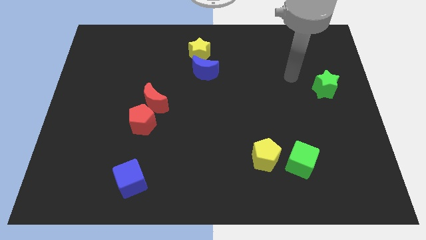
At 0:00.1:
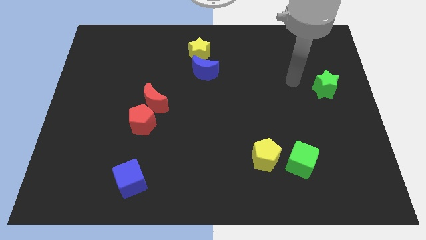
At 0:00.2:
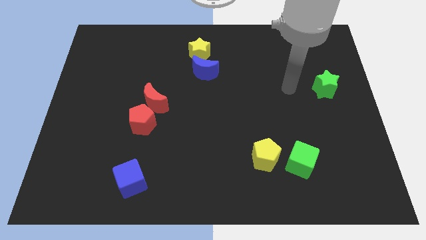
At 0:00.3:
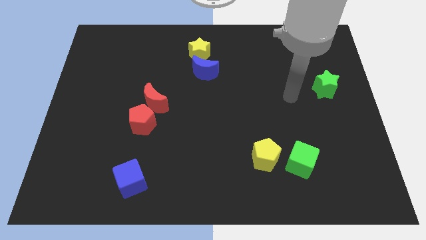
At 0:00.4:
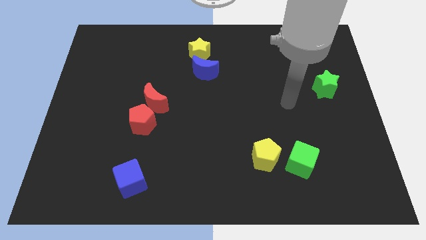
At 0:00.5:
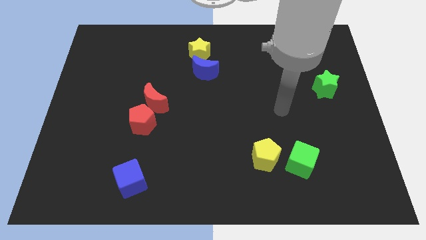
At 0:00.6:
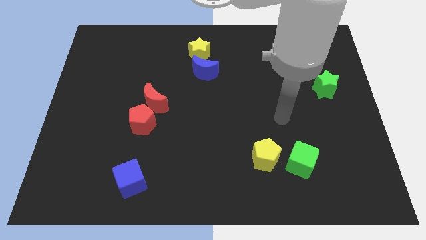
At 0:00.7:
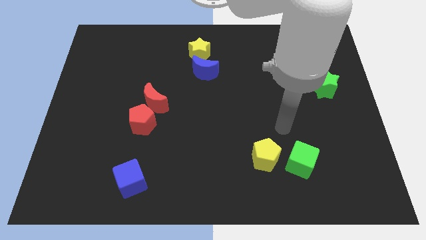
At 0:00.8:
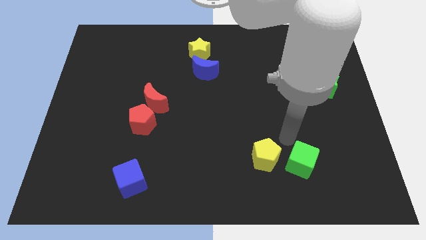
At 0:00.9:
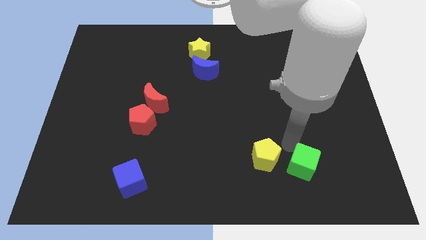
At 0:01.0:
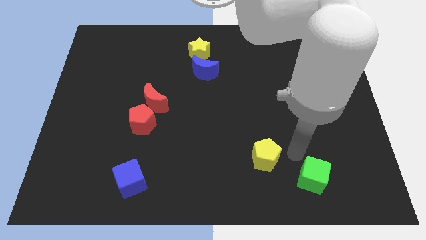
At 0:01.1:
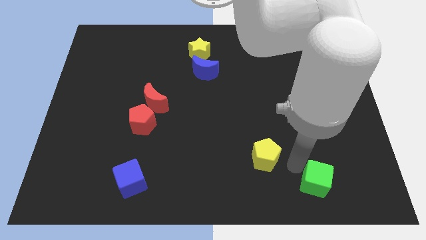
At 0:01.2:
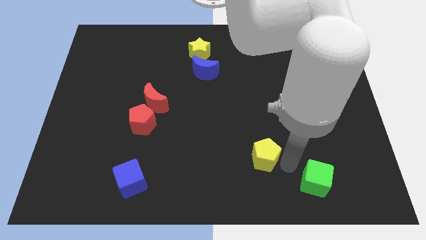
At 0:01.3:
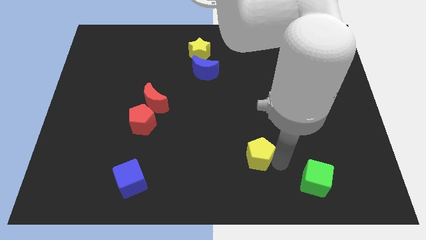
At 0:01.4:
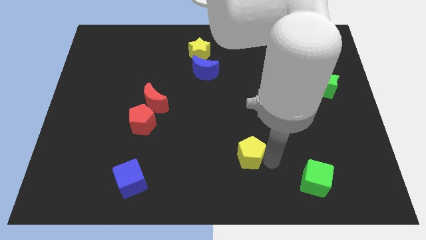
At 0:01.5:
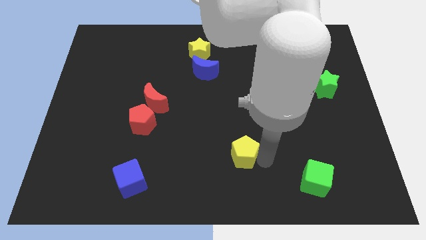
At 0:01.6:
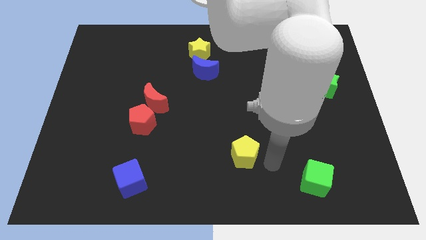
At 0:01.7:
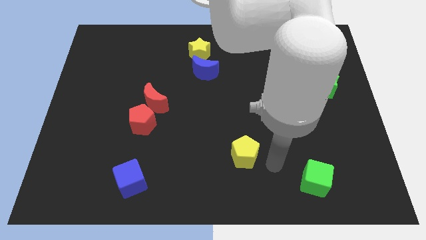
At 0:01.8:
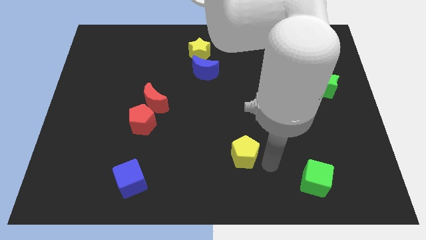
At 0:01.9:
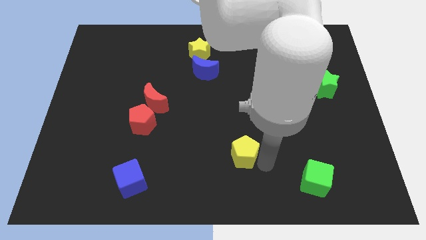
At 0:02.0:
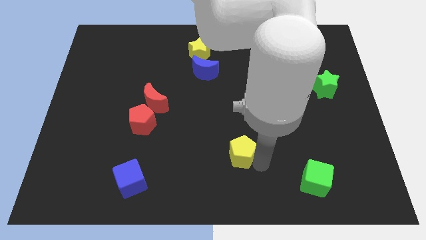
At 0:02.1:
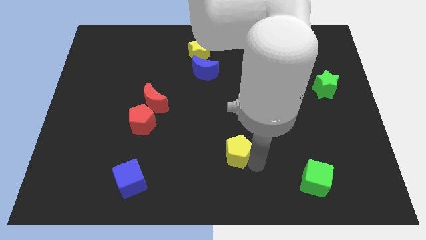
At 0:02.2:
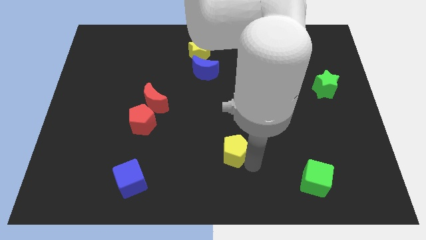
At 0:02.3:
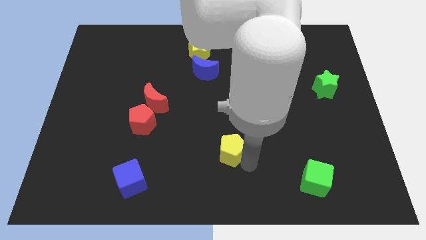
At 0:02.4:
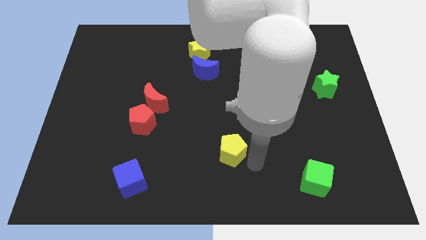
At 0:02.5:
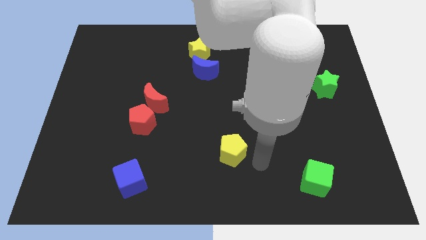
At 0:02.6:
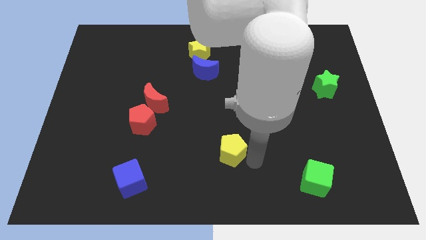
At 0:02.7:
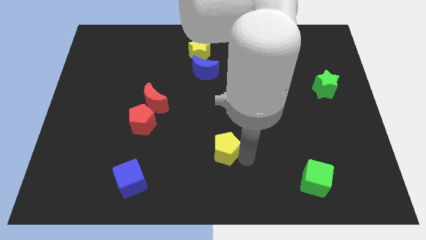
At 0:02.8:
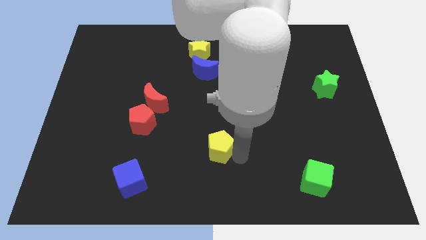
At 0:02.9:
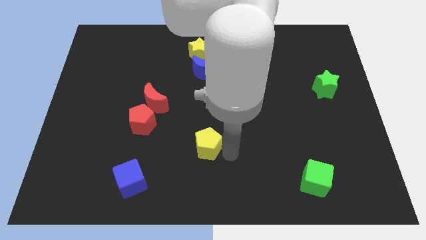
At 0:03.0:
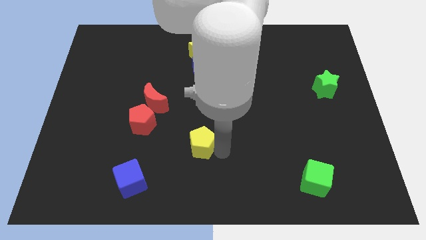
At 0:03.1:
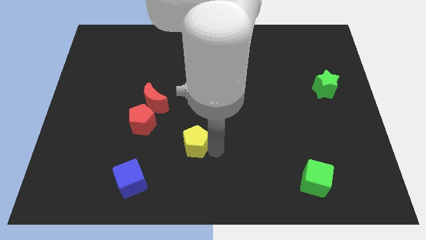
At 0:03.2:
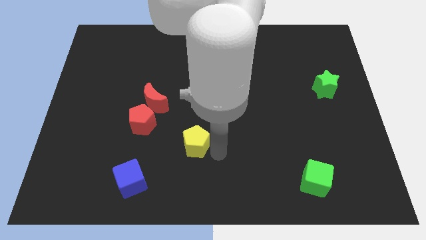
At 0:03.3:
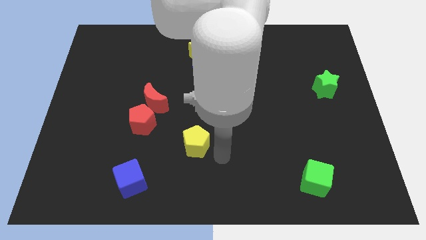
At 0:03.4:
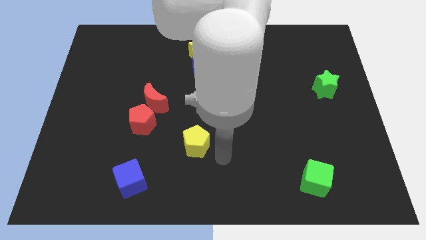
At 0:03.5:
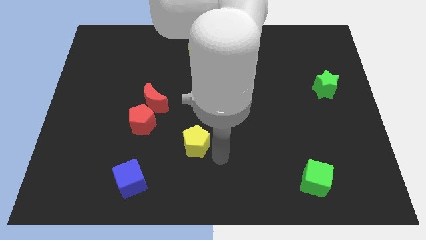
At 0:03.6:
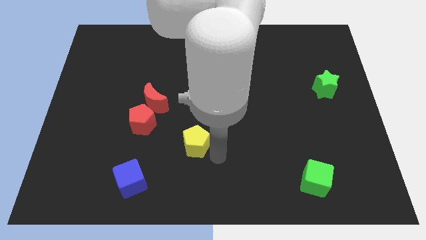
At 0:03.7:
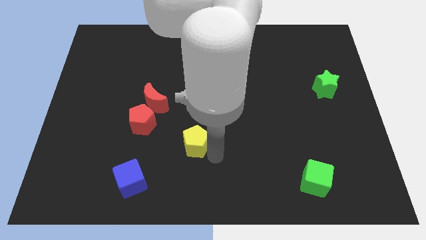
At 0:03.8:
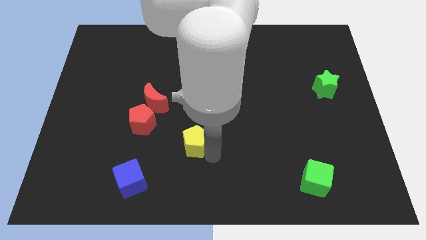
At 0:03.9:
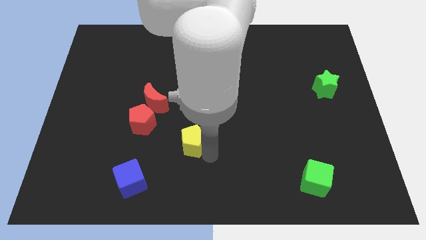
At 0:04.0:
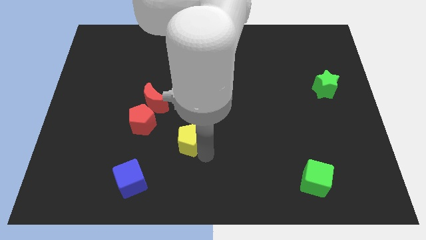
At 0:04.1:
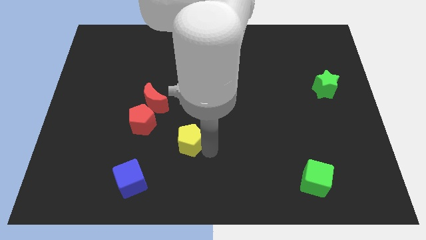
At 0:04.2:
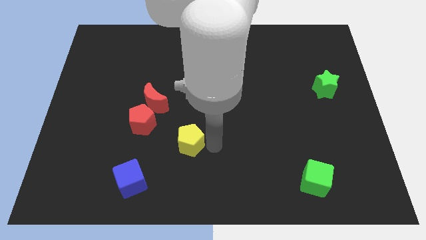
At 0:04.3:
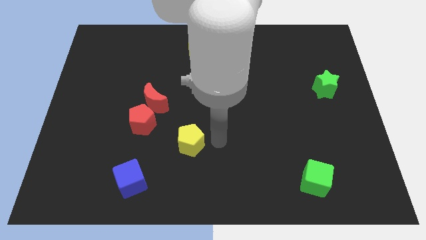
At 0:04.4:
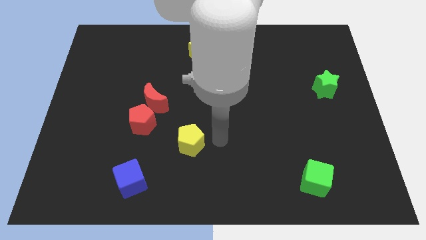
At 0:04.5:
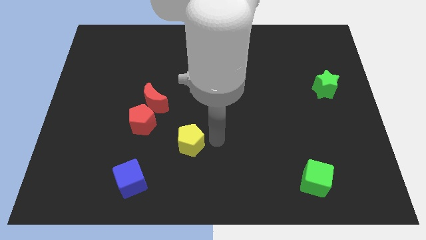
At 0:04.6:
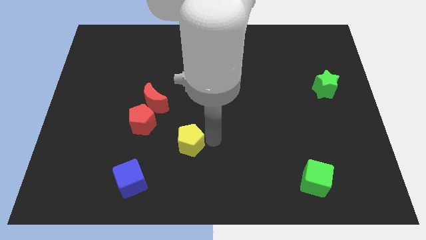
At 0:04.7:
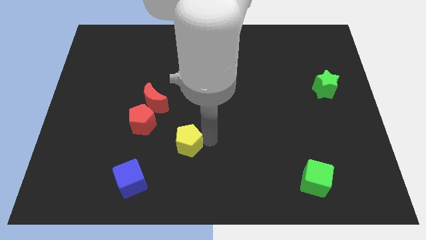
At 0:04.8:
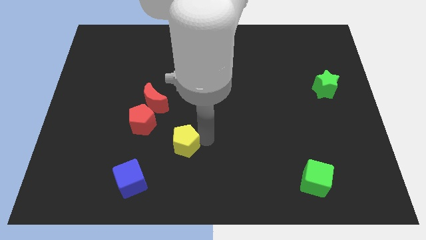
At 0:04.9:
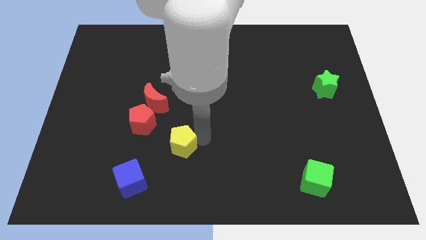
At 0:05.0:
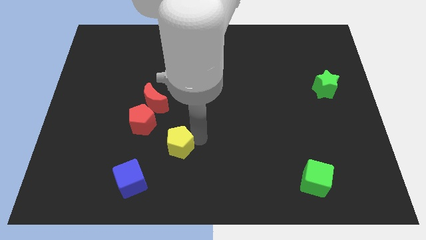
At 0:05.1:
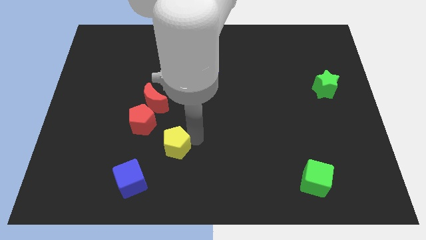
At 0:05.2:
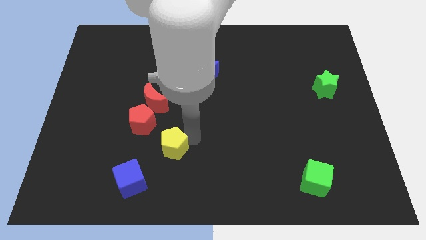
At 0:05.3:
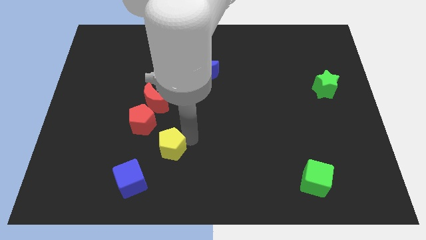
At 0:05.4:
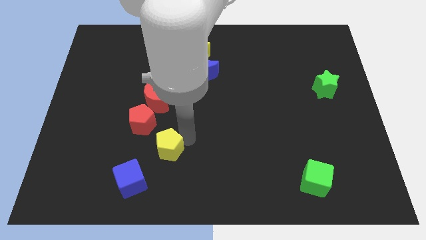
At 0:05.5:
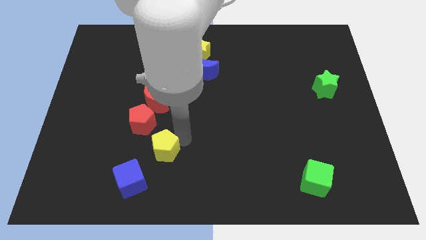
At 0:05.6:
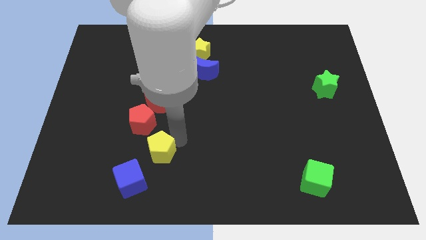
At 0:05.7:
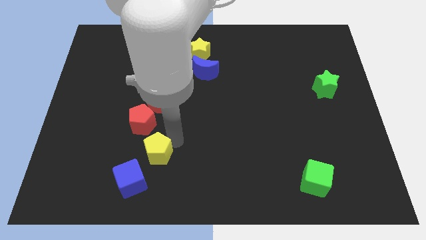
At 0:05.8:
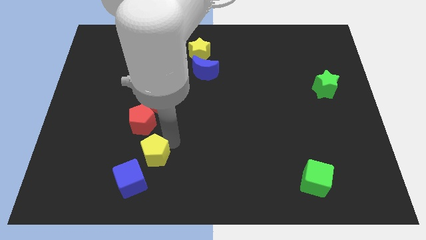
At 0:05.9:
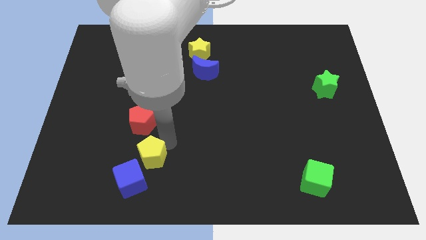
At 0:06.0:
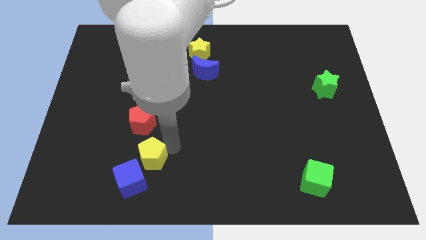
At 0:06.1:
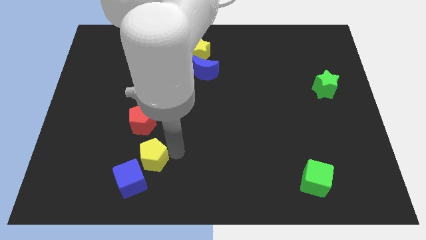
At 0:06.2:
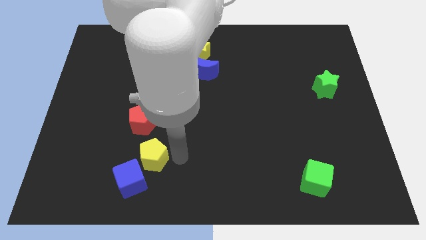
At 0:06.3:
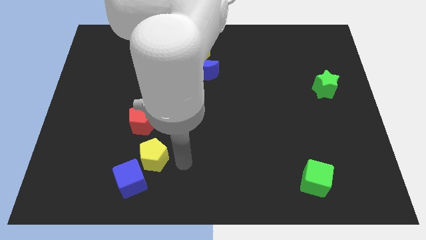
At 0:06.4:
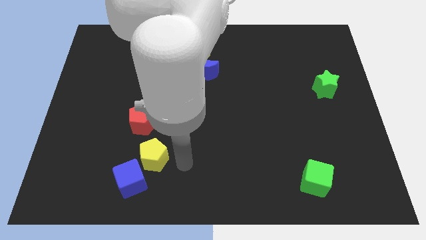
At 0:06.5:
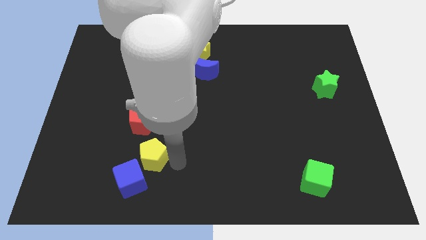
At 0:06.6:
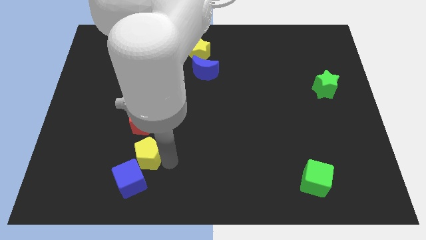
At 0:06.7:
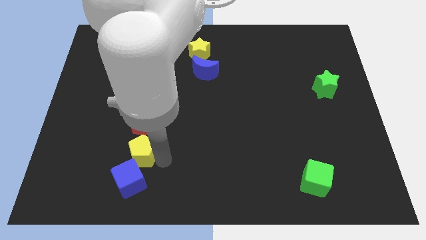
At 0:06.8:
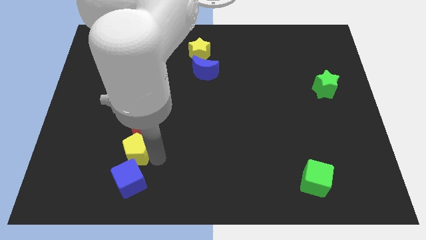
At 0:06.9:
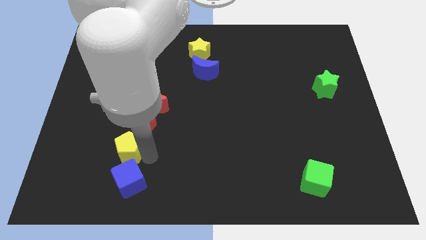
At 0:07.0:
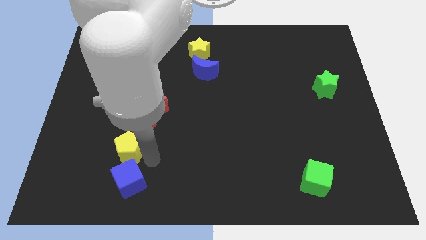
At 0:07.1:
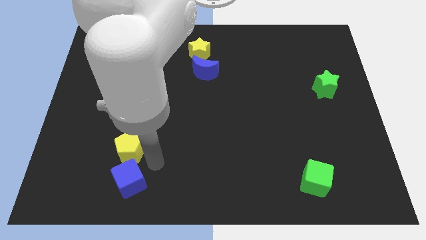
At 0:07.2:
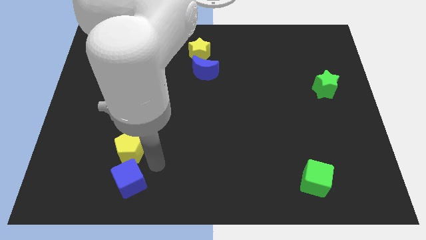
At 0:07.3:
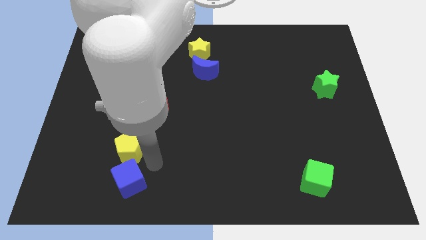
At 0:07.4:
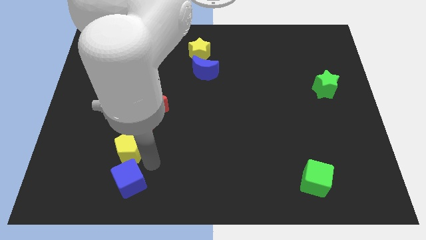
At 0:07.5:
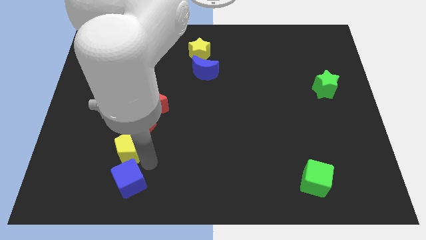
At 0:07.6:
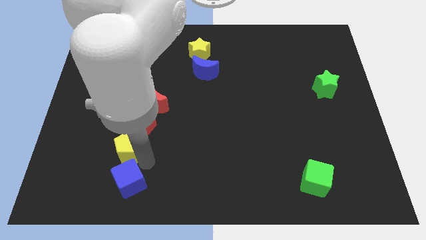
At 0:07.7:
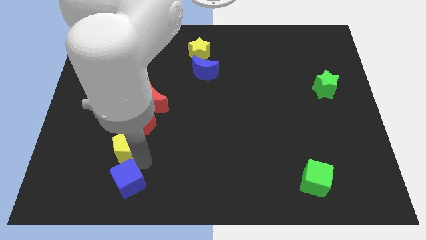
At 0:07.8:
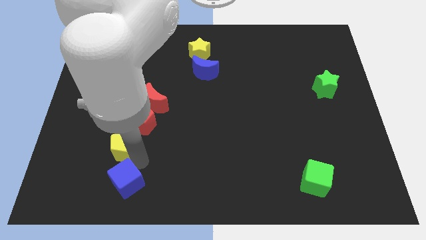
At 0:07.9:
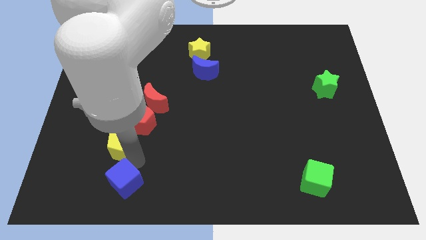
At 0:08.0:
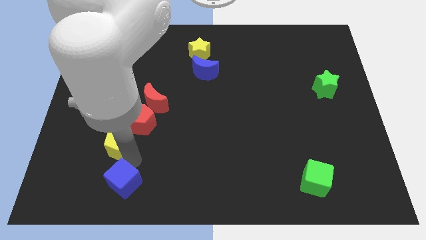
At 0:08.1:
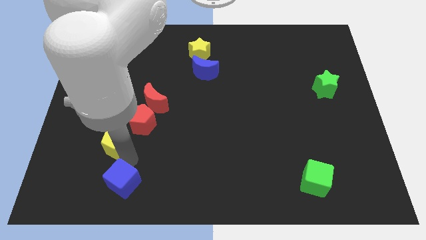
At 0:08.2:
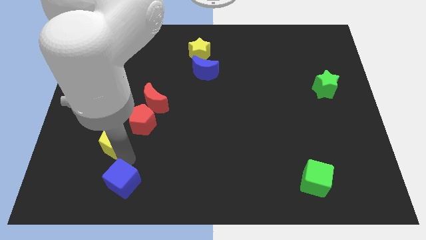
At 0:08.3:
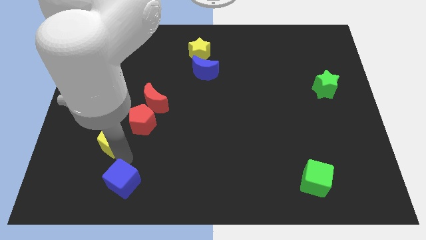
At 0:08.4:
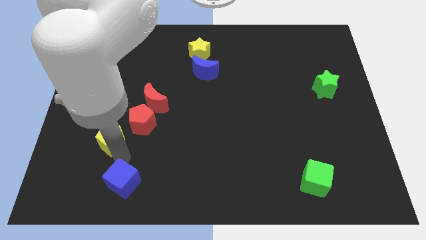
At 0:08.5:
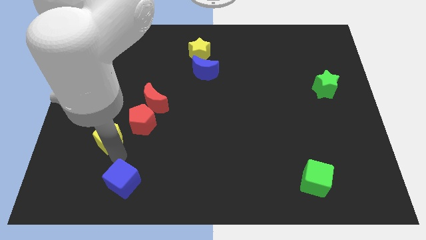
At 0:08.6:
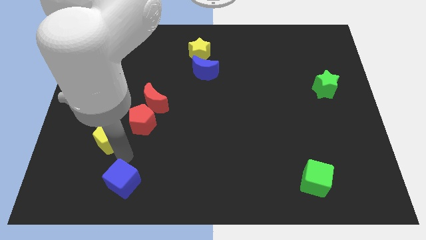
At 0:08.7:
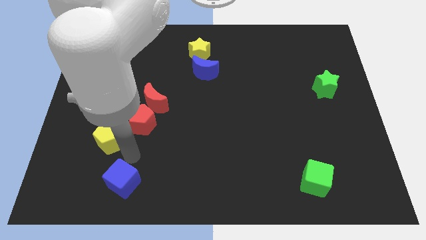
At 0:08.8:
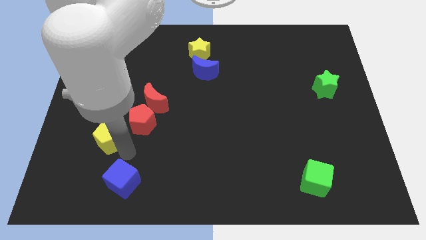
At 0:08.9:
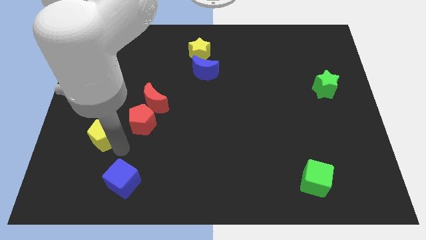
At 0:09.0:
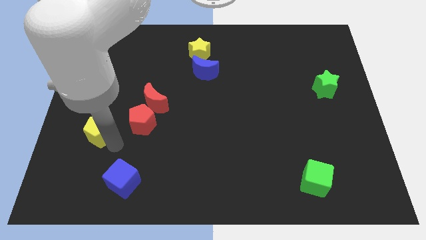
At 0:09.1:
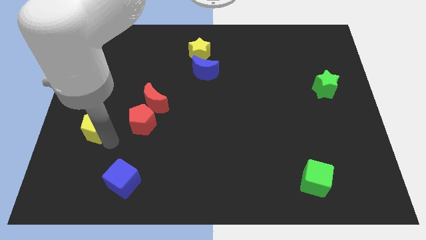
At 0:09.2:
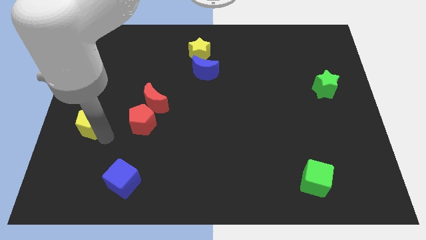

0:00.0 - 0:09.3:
put the yellow pentagon to the left side of the board
